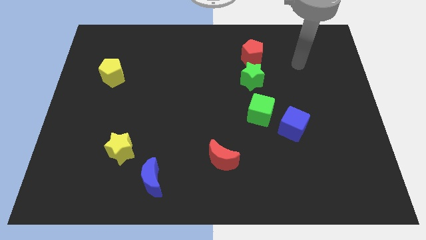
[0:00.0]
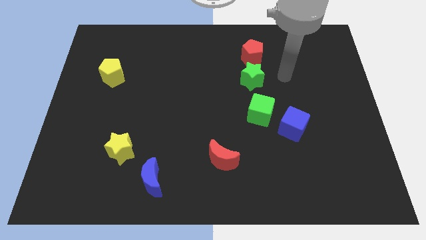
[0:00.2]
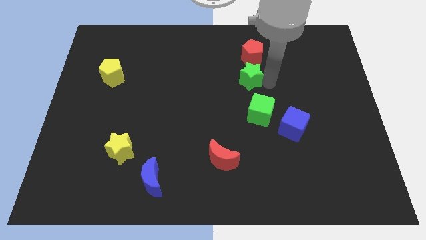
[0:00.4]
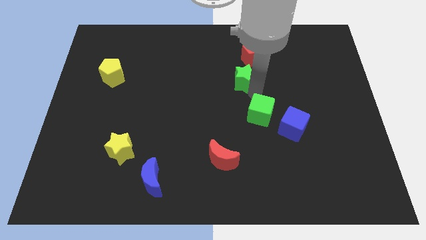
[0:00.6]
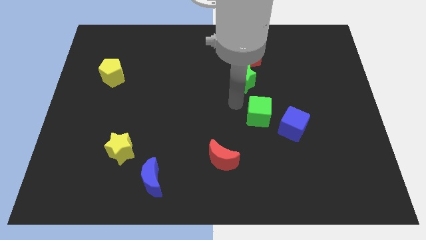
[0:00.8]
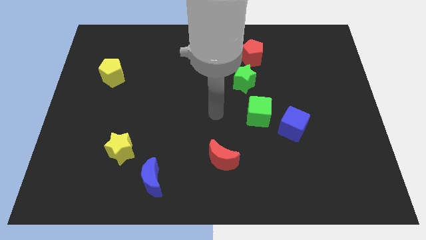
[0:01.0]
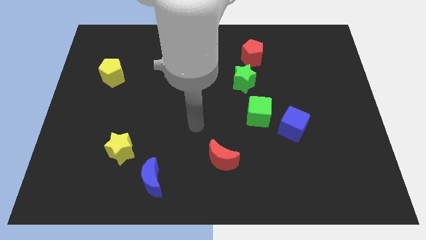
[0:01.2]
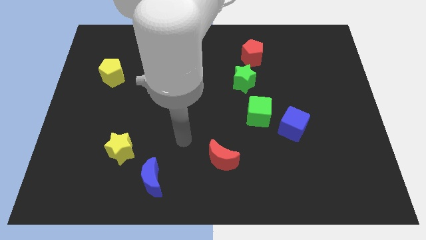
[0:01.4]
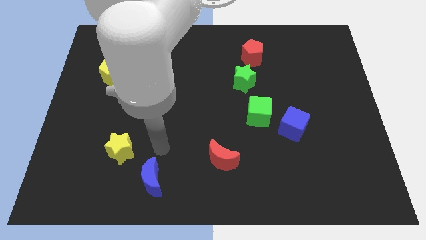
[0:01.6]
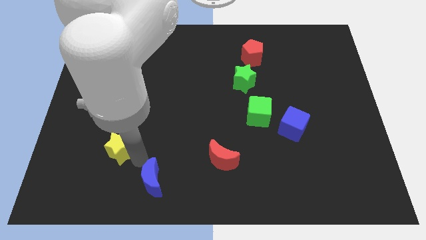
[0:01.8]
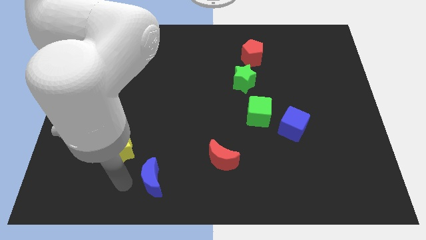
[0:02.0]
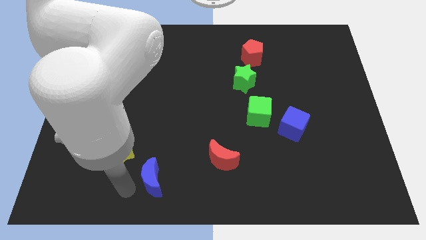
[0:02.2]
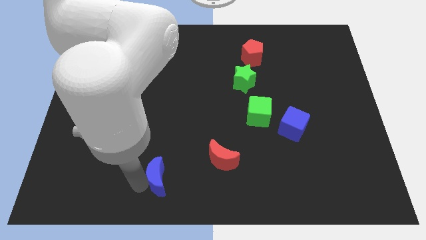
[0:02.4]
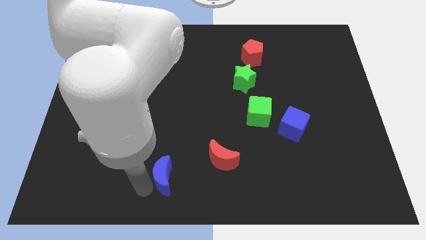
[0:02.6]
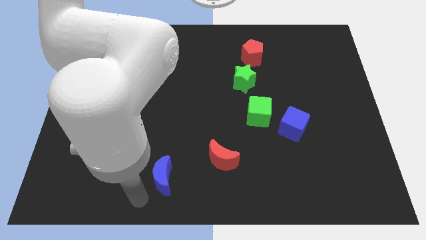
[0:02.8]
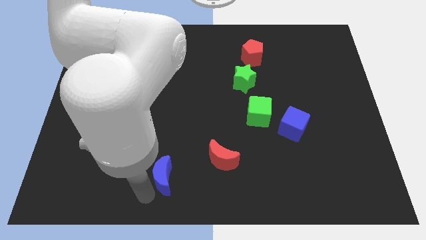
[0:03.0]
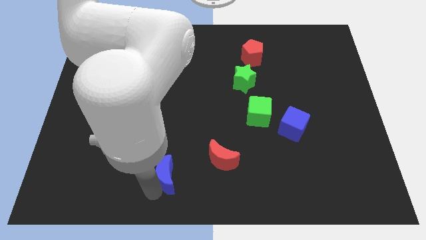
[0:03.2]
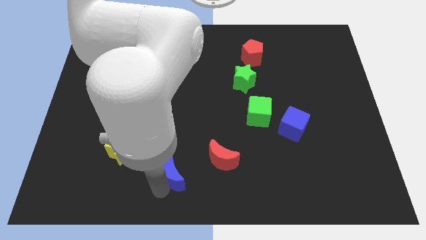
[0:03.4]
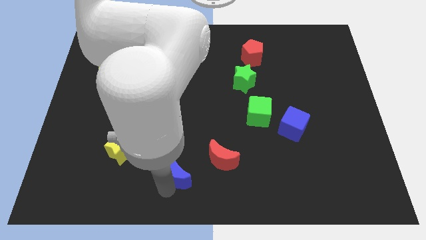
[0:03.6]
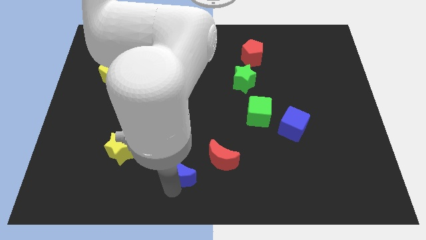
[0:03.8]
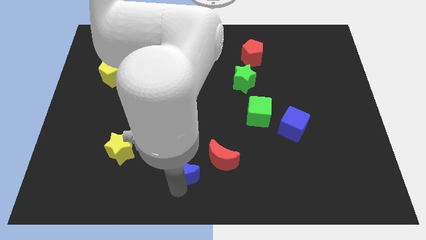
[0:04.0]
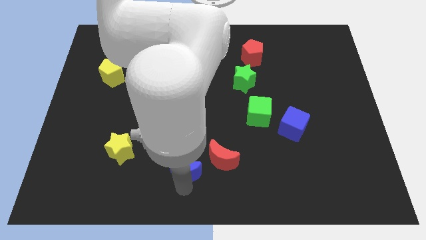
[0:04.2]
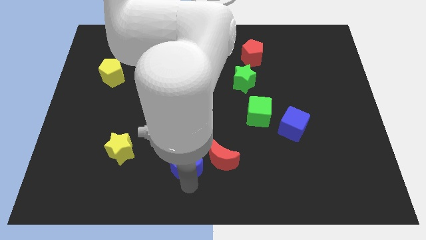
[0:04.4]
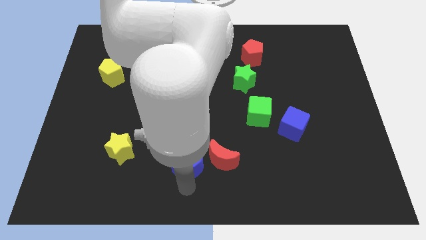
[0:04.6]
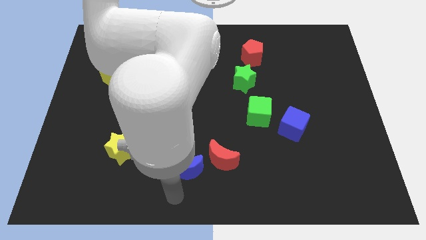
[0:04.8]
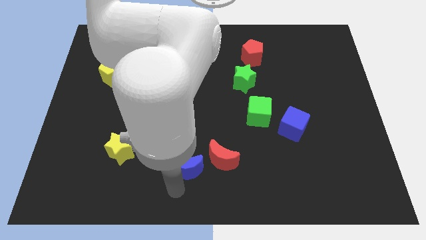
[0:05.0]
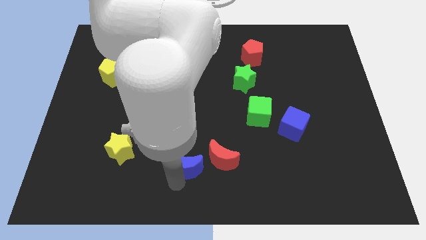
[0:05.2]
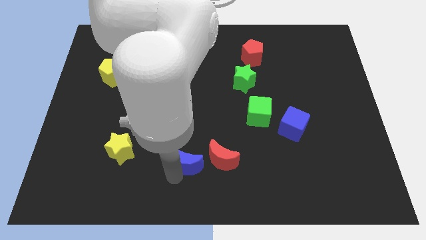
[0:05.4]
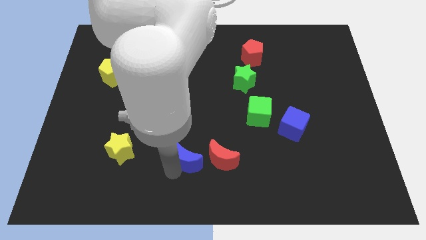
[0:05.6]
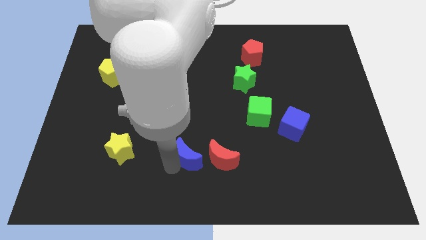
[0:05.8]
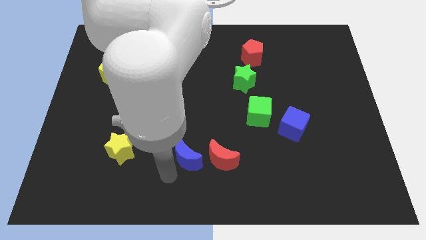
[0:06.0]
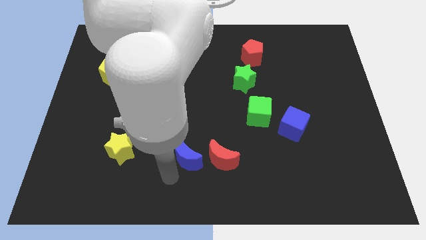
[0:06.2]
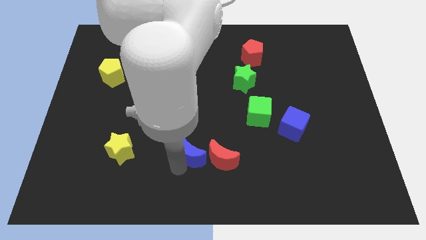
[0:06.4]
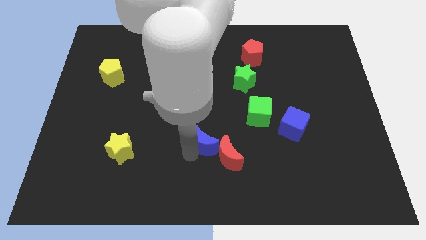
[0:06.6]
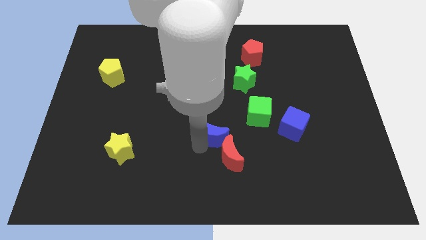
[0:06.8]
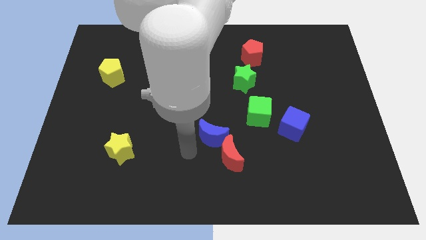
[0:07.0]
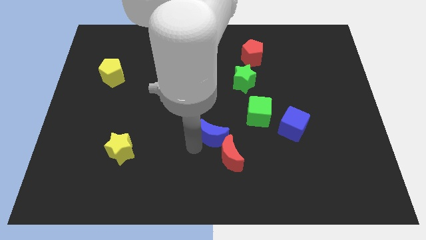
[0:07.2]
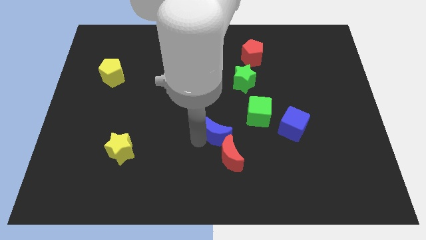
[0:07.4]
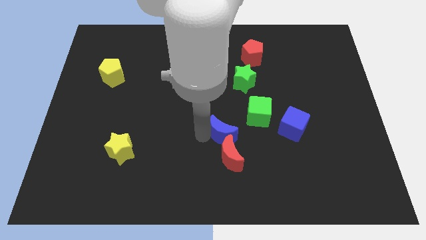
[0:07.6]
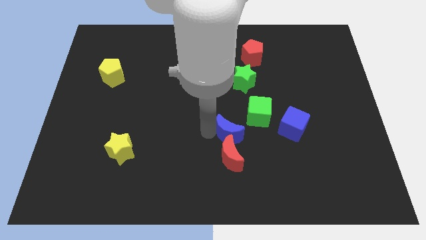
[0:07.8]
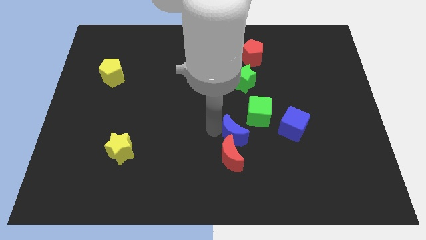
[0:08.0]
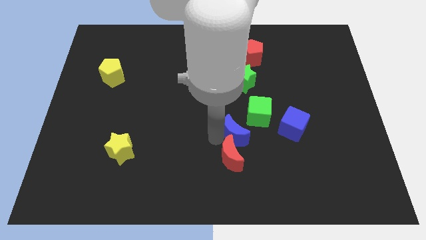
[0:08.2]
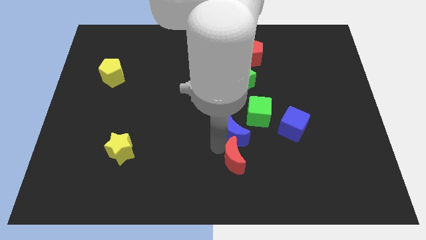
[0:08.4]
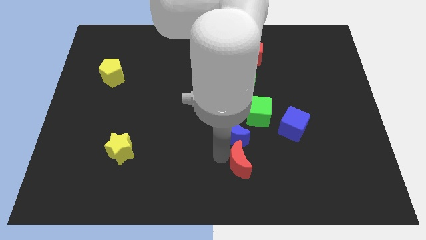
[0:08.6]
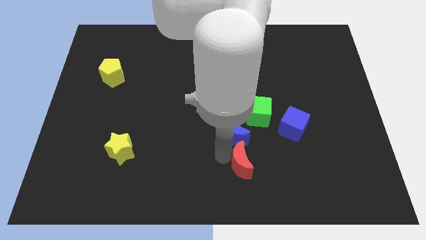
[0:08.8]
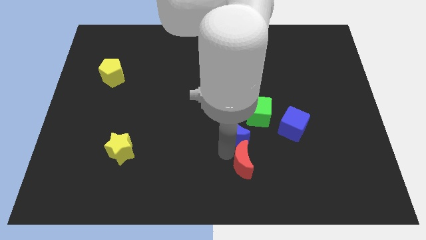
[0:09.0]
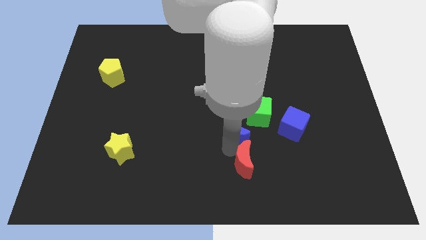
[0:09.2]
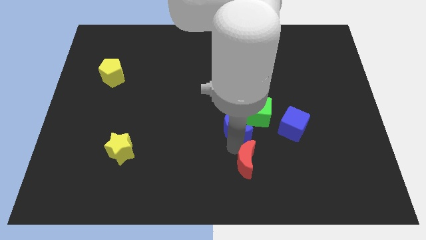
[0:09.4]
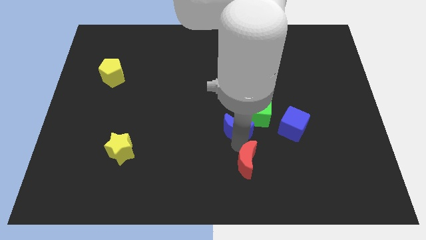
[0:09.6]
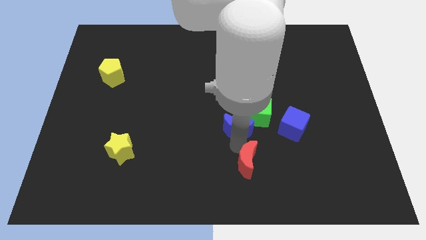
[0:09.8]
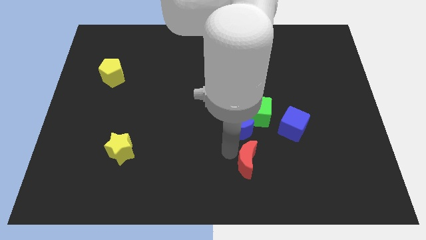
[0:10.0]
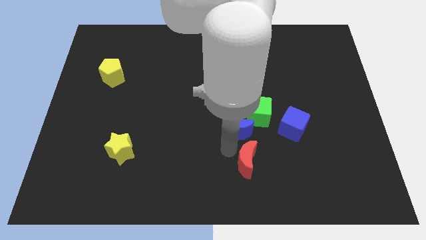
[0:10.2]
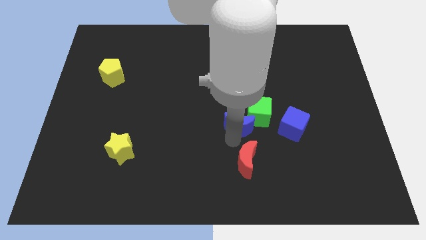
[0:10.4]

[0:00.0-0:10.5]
slide the blue moon to the green cube

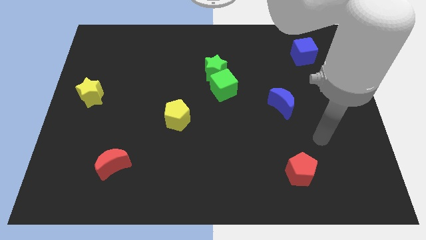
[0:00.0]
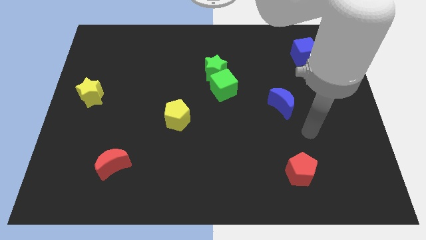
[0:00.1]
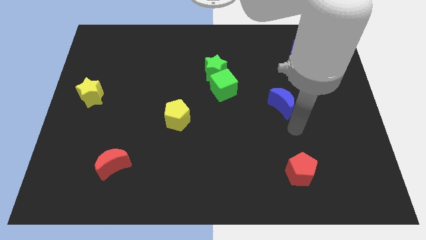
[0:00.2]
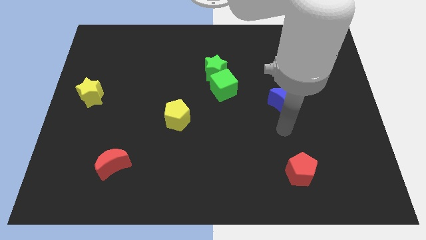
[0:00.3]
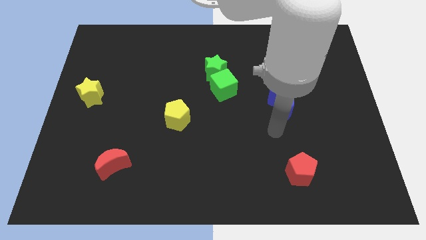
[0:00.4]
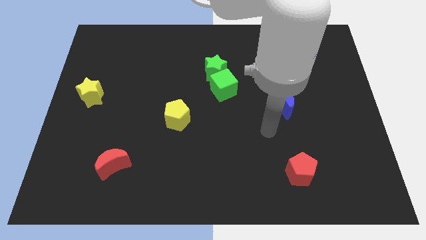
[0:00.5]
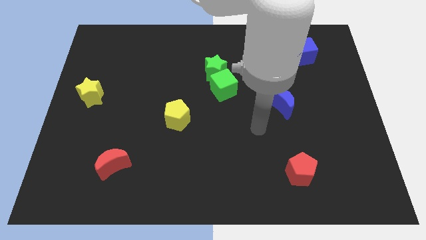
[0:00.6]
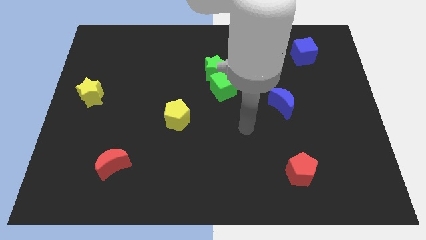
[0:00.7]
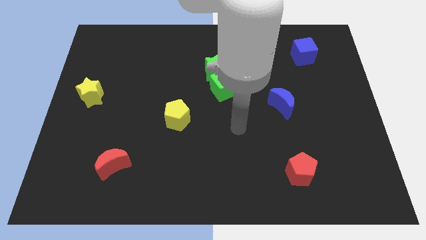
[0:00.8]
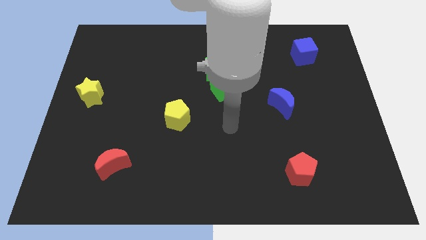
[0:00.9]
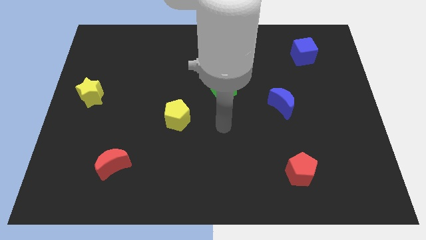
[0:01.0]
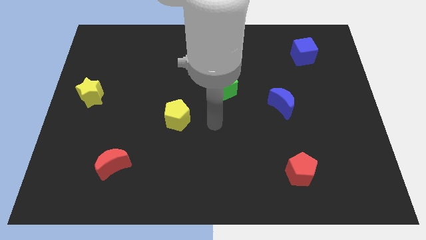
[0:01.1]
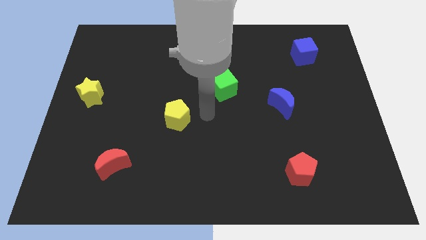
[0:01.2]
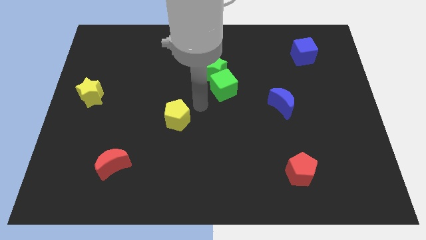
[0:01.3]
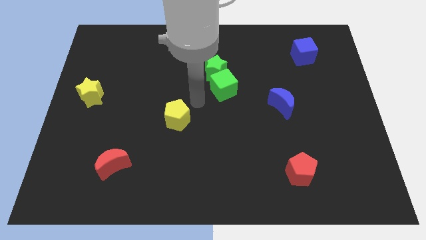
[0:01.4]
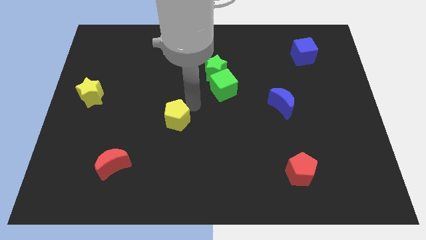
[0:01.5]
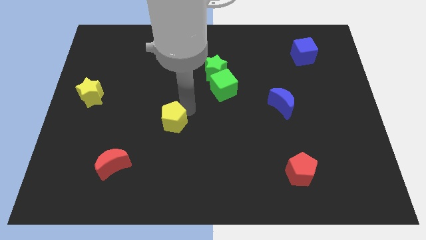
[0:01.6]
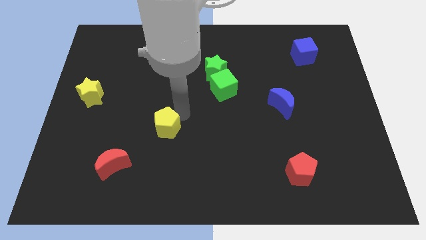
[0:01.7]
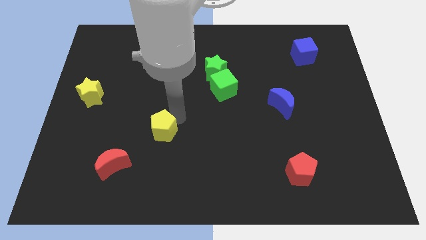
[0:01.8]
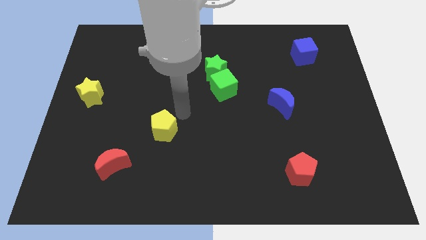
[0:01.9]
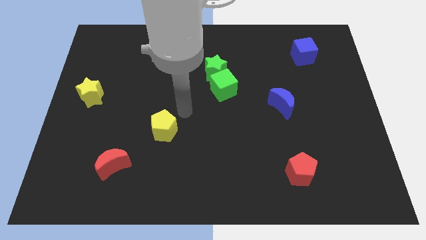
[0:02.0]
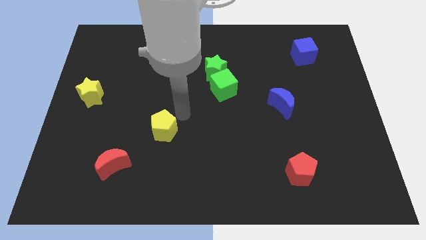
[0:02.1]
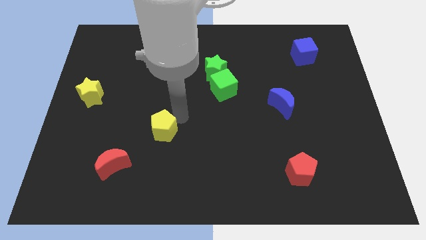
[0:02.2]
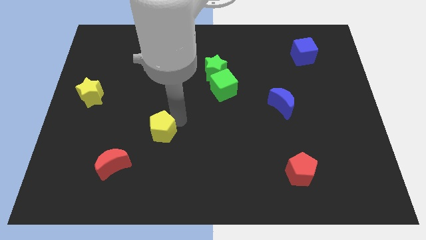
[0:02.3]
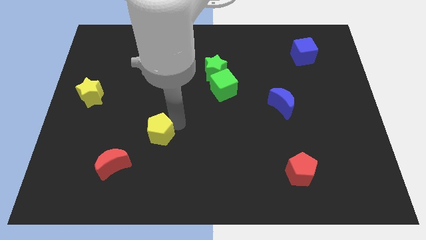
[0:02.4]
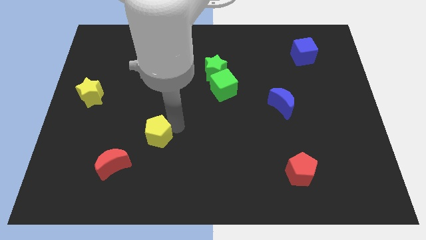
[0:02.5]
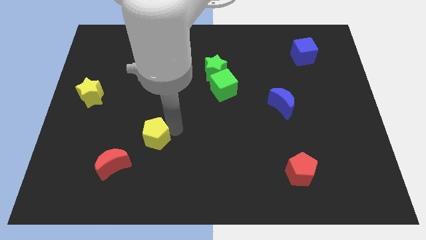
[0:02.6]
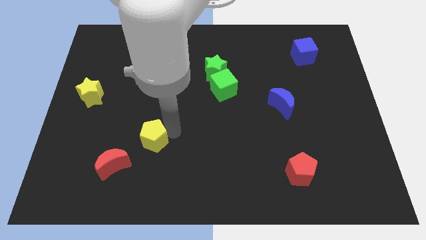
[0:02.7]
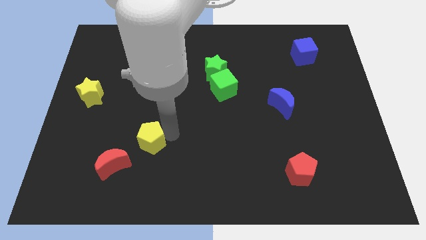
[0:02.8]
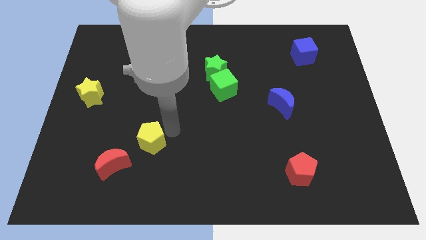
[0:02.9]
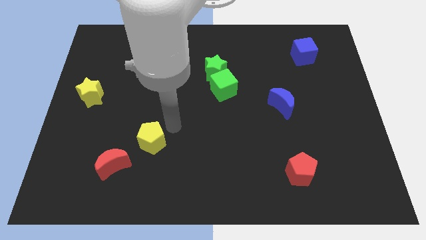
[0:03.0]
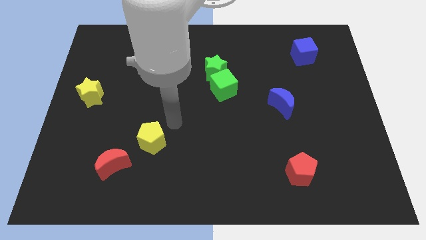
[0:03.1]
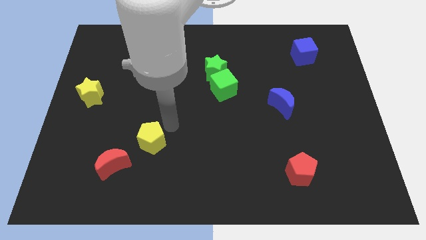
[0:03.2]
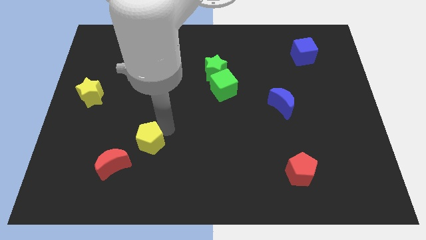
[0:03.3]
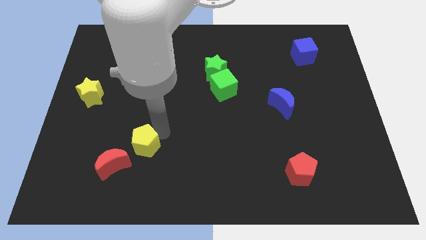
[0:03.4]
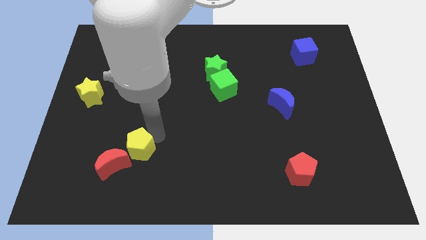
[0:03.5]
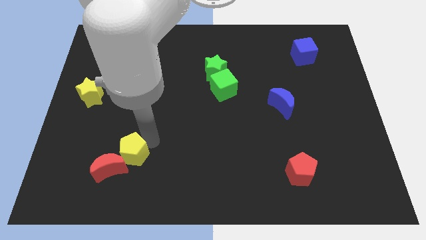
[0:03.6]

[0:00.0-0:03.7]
move the yellow pentagon close to the red moon
